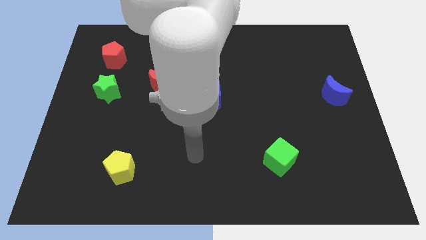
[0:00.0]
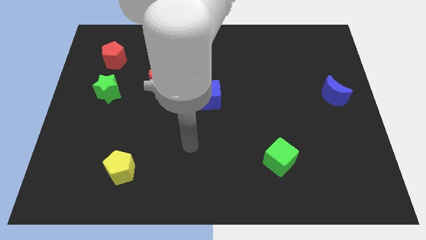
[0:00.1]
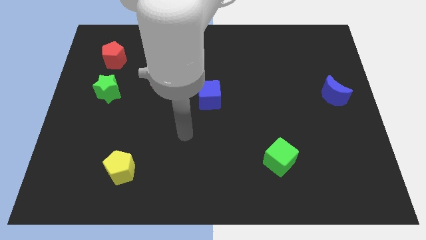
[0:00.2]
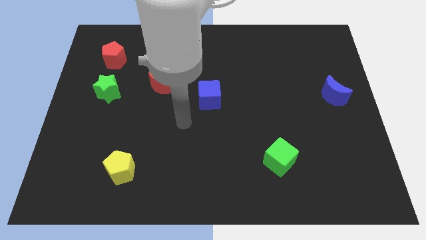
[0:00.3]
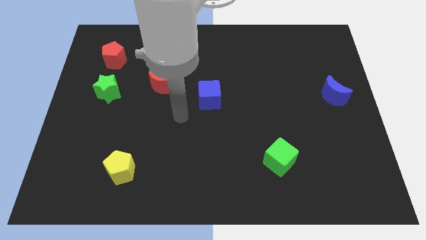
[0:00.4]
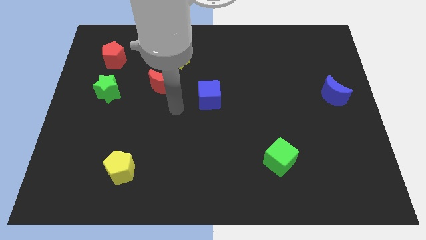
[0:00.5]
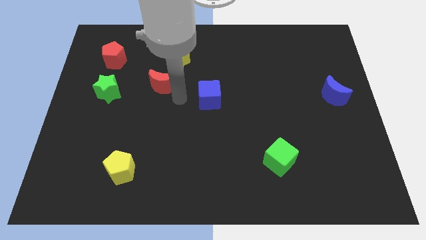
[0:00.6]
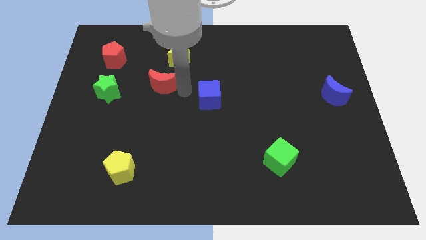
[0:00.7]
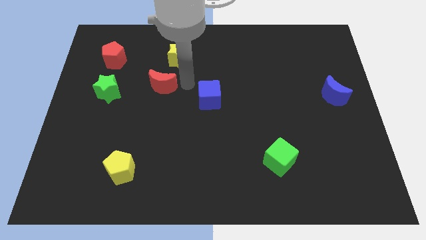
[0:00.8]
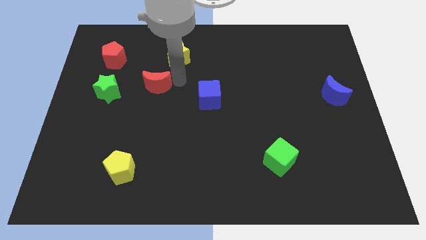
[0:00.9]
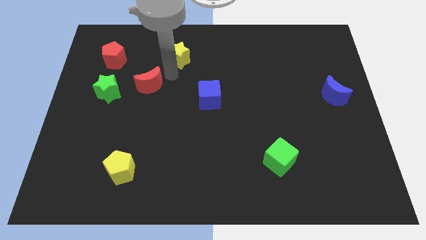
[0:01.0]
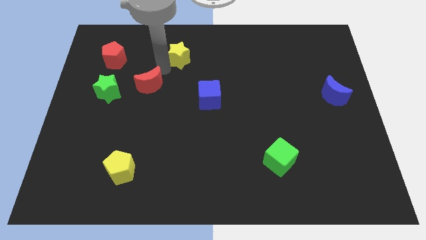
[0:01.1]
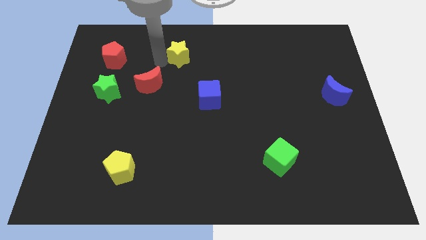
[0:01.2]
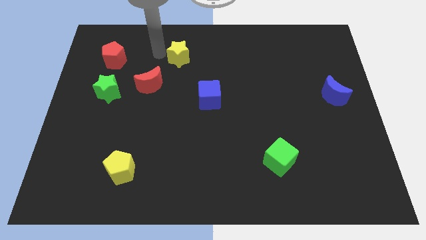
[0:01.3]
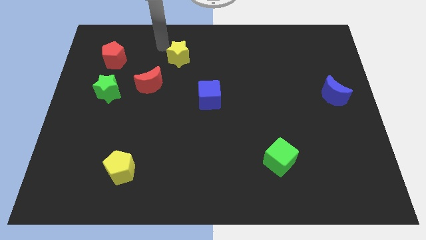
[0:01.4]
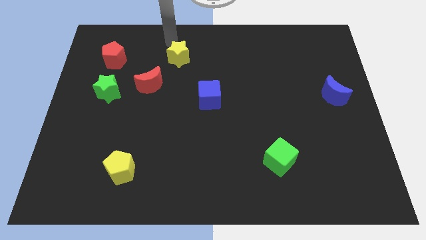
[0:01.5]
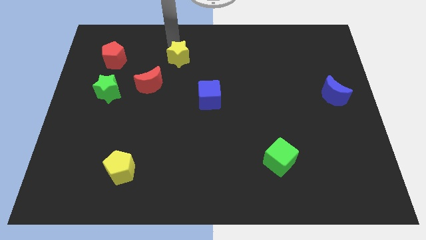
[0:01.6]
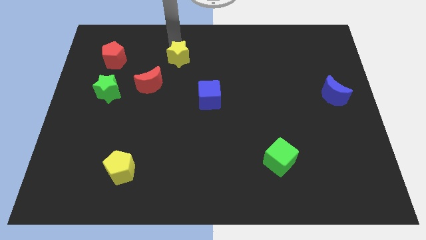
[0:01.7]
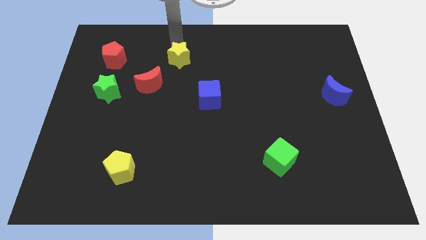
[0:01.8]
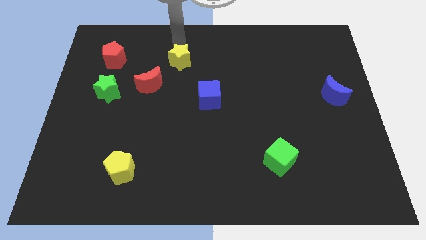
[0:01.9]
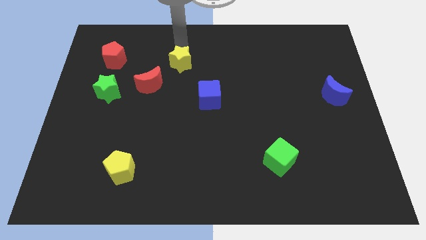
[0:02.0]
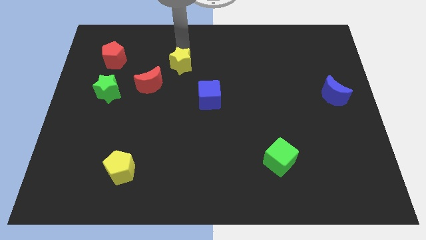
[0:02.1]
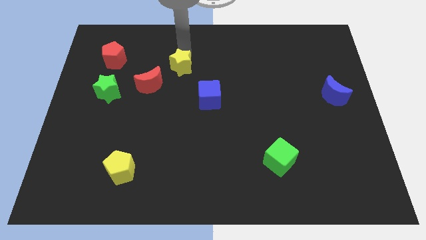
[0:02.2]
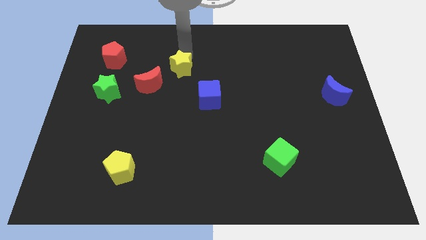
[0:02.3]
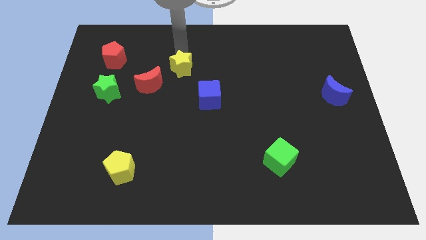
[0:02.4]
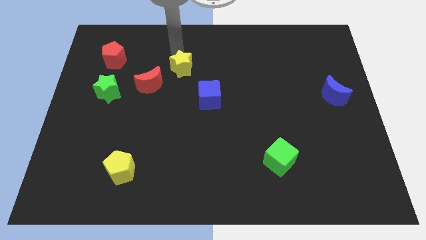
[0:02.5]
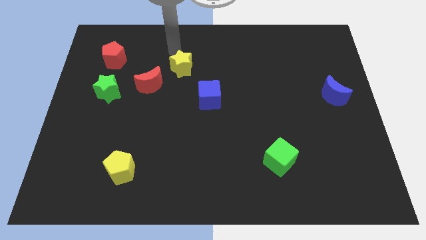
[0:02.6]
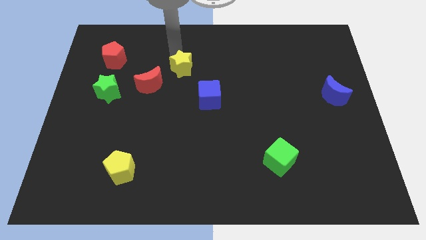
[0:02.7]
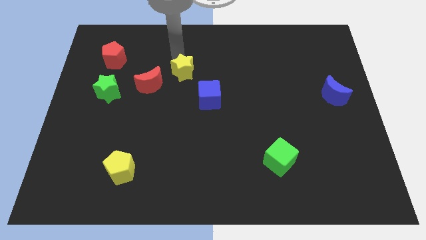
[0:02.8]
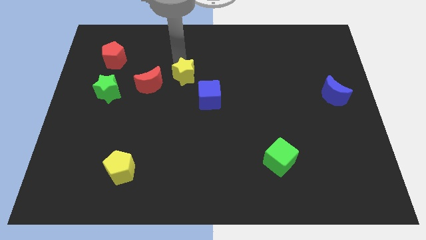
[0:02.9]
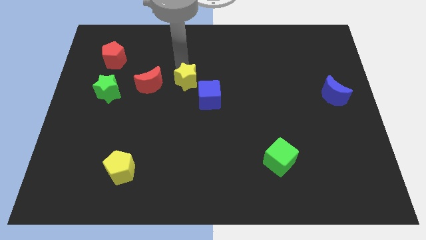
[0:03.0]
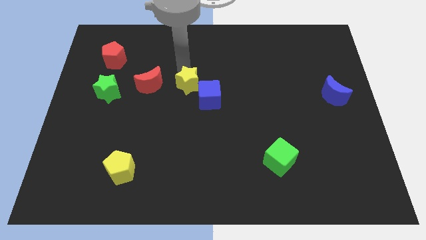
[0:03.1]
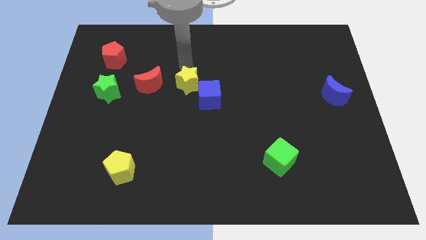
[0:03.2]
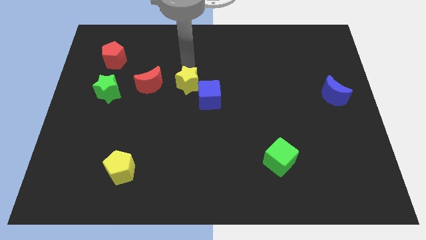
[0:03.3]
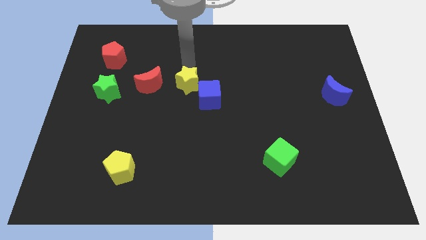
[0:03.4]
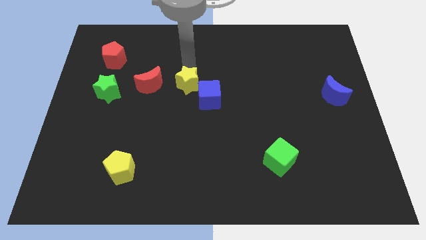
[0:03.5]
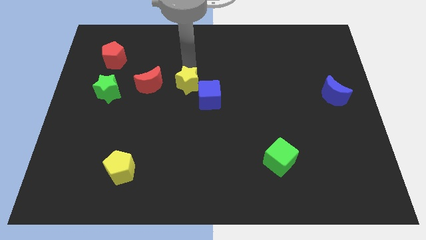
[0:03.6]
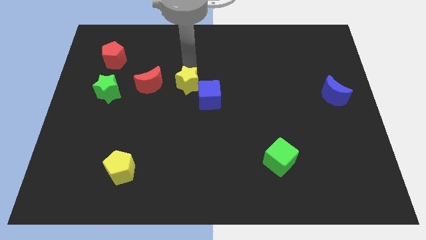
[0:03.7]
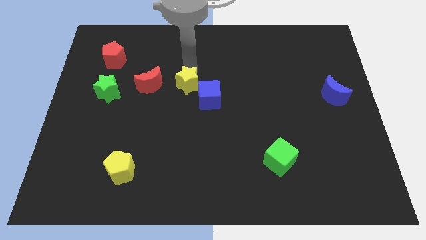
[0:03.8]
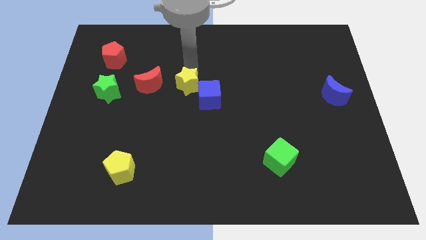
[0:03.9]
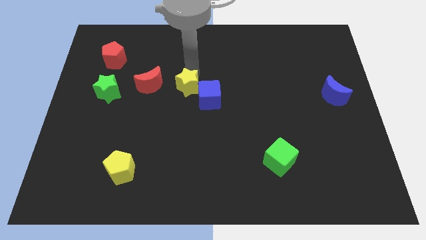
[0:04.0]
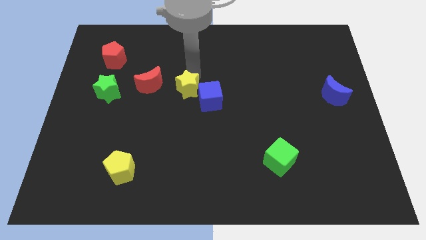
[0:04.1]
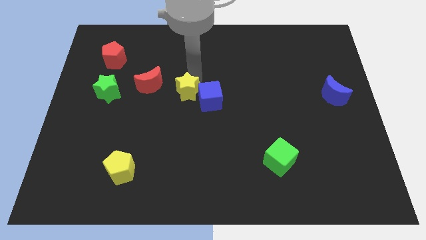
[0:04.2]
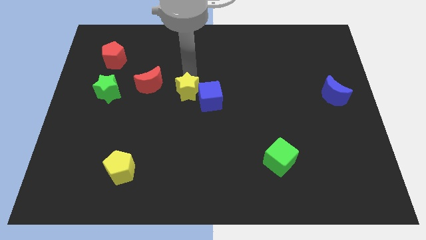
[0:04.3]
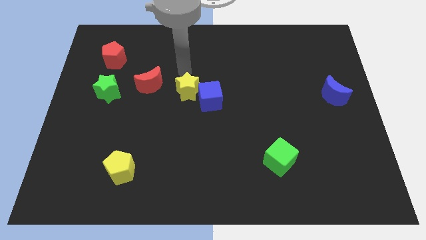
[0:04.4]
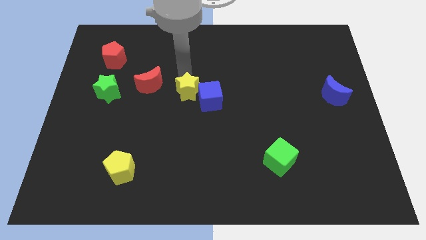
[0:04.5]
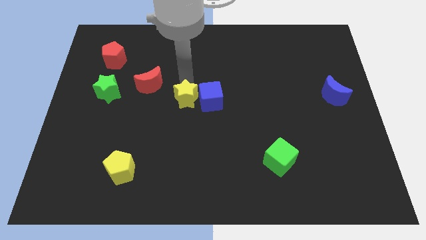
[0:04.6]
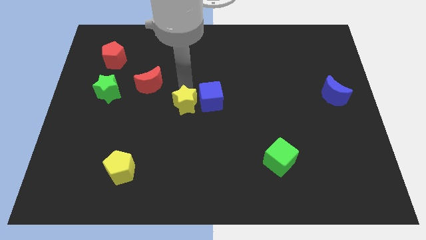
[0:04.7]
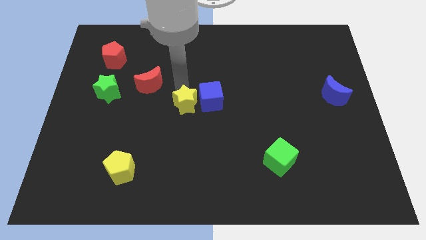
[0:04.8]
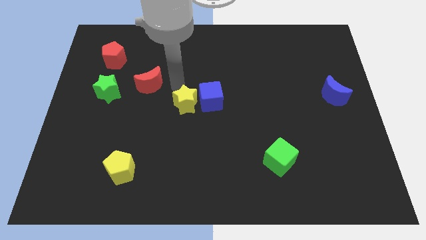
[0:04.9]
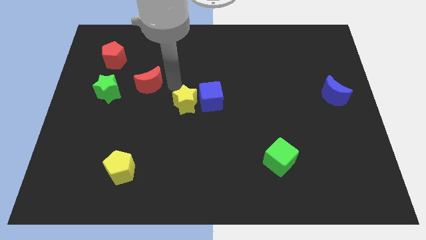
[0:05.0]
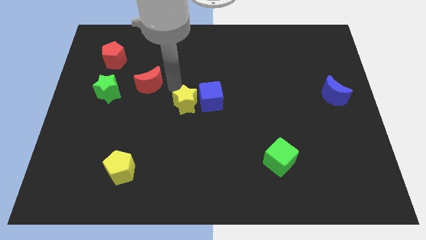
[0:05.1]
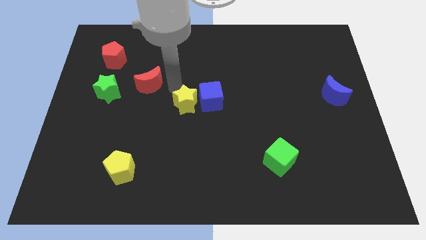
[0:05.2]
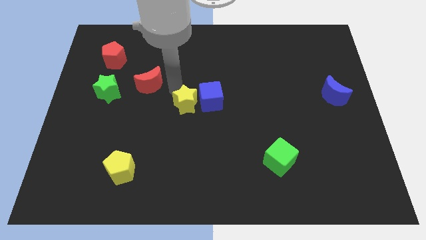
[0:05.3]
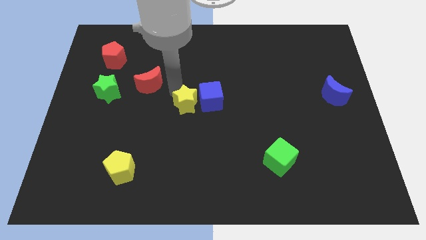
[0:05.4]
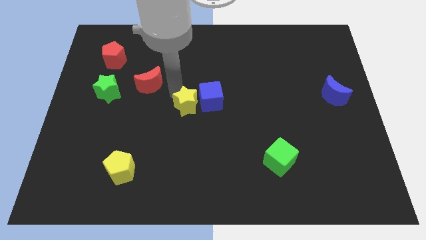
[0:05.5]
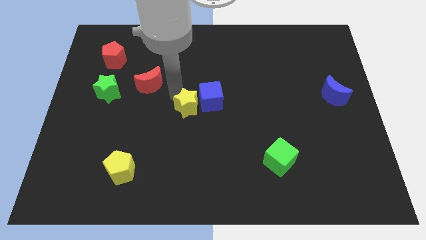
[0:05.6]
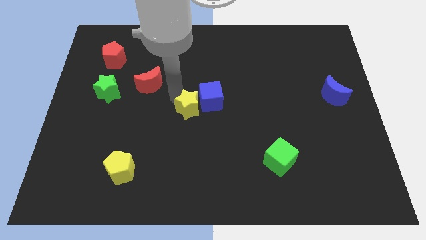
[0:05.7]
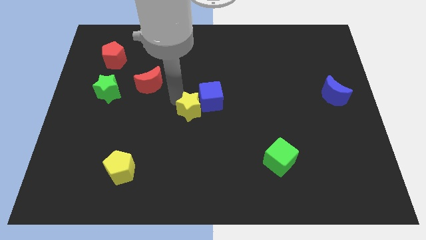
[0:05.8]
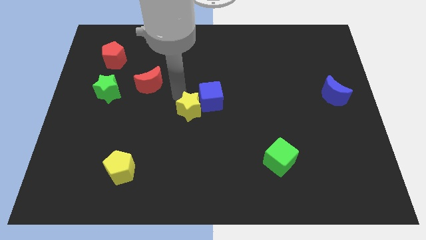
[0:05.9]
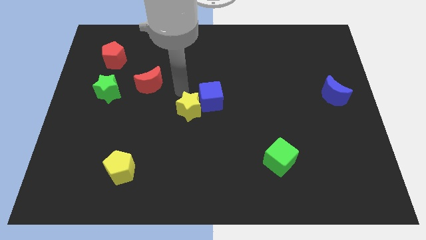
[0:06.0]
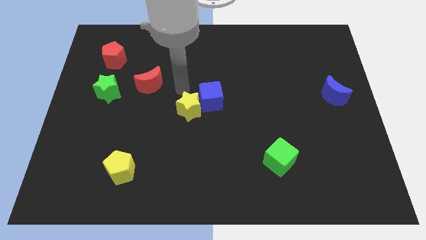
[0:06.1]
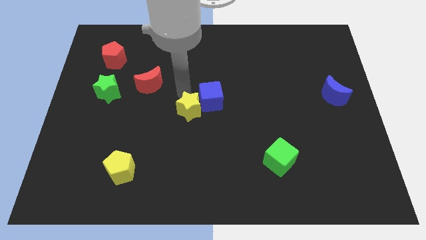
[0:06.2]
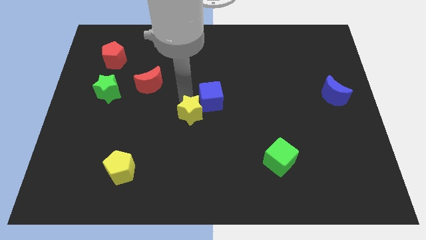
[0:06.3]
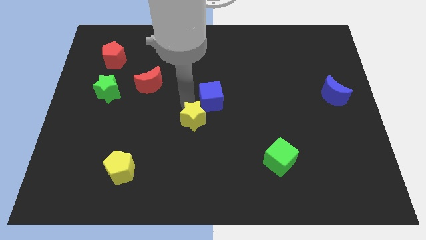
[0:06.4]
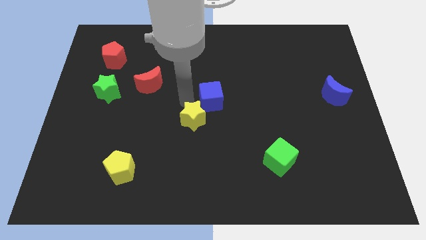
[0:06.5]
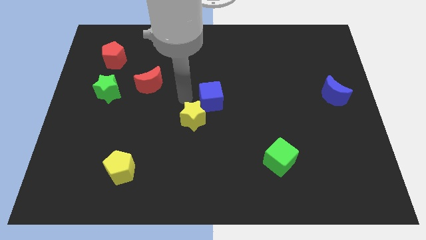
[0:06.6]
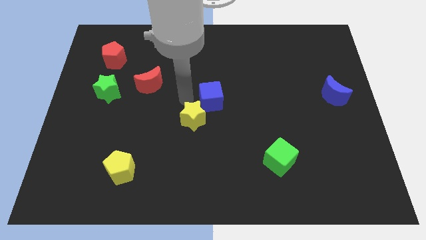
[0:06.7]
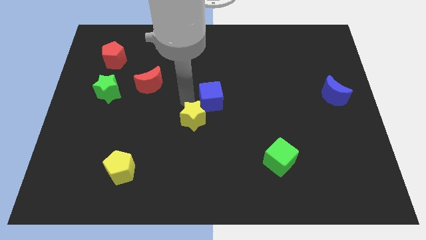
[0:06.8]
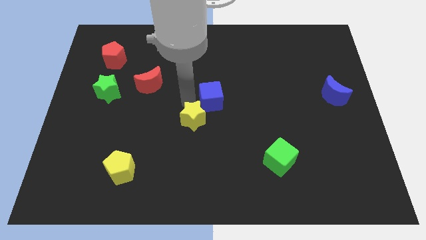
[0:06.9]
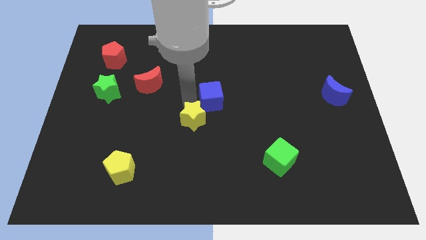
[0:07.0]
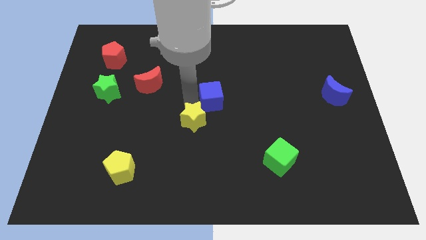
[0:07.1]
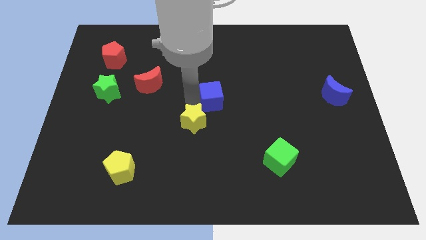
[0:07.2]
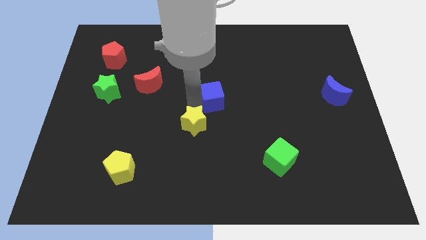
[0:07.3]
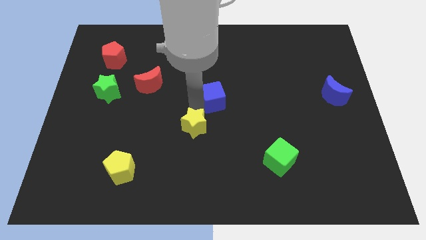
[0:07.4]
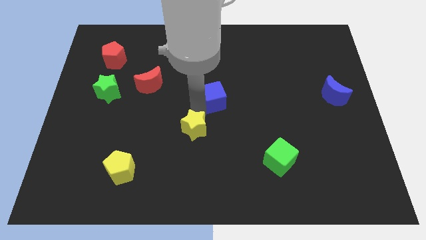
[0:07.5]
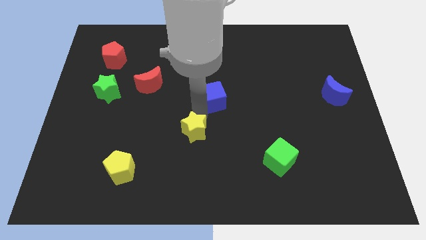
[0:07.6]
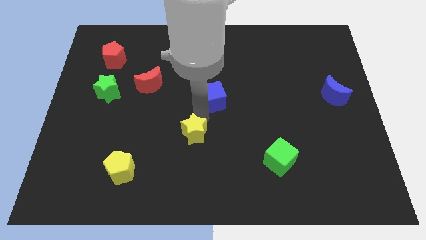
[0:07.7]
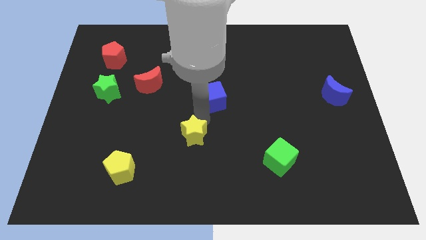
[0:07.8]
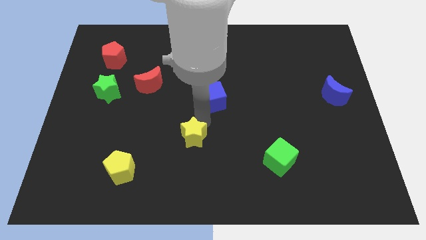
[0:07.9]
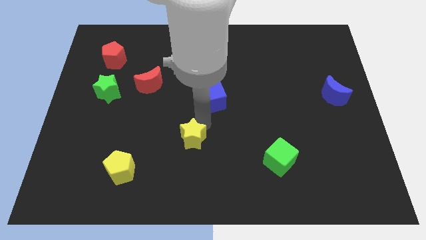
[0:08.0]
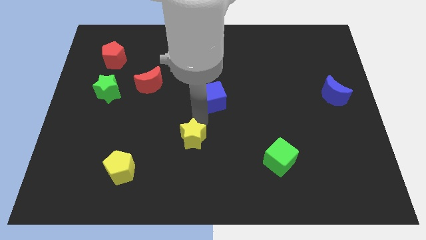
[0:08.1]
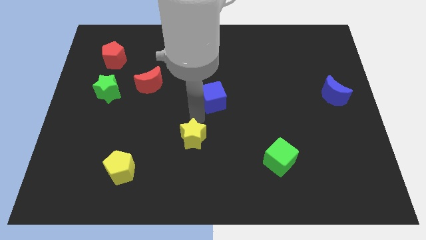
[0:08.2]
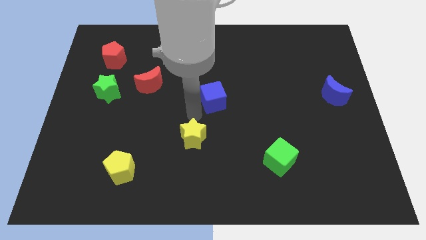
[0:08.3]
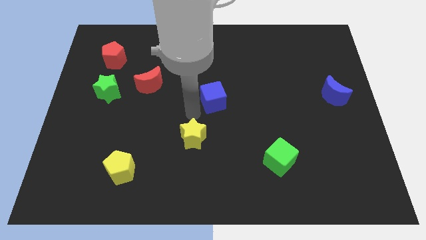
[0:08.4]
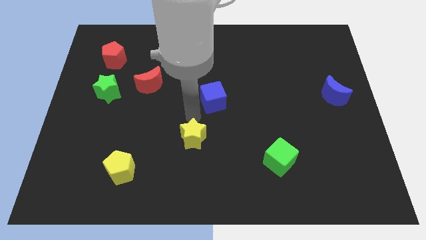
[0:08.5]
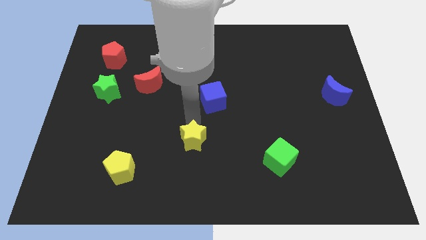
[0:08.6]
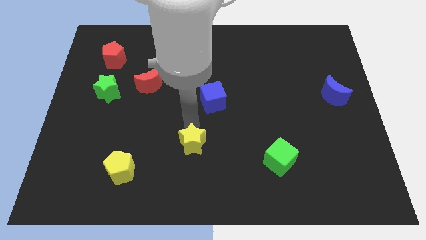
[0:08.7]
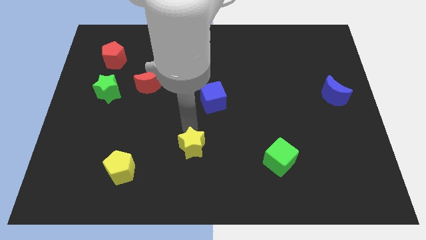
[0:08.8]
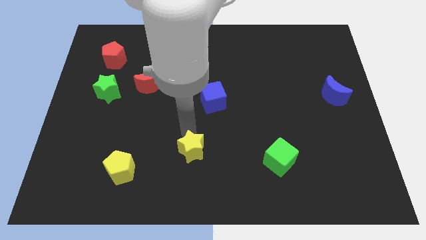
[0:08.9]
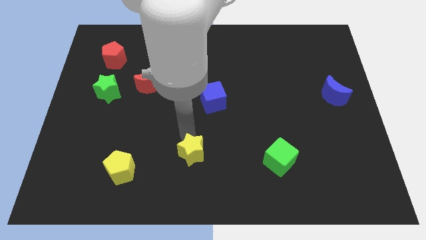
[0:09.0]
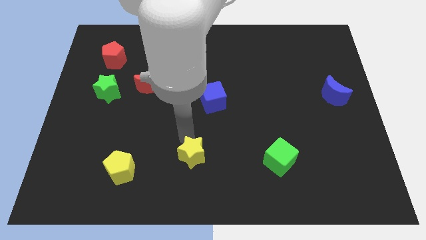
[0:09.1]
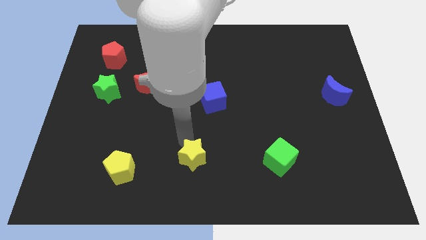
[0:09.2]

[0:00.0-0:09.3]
push the yellow star to the bottom
